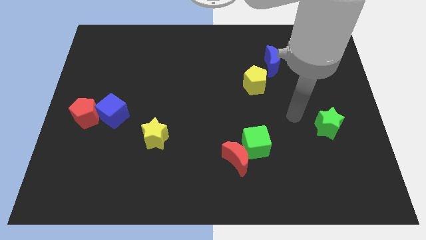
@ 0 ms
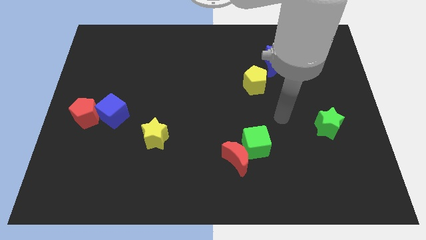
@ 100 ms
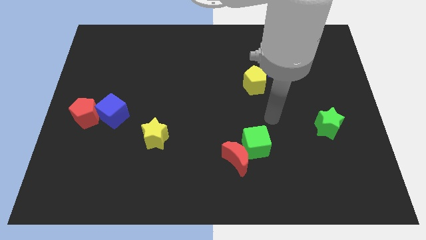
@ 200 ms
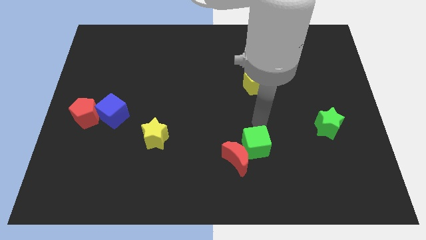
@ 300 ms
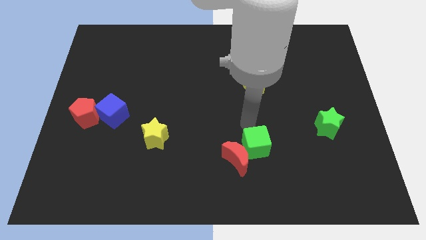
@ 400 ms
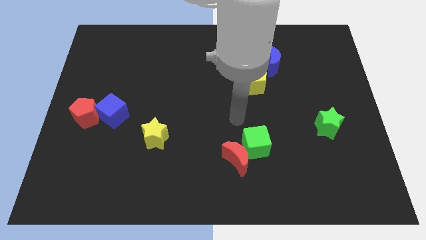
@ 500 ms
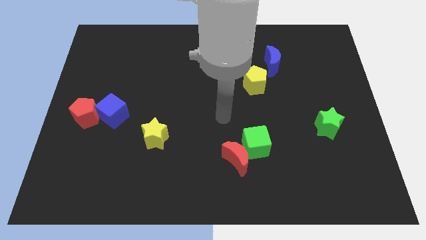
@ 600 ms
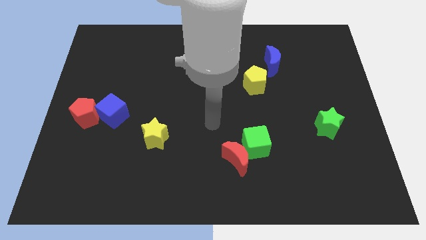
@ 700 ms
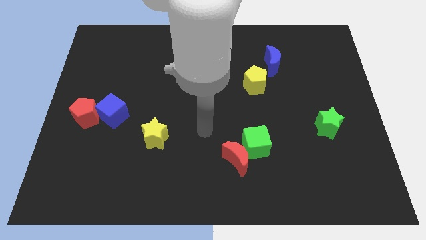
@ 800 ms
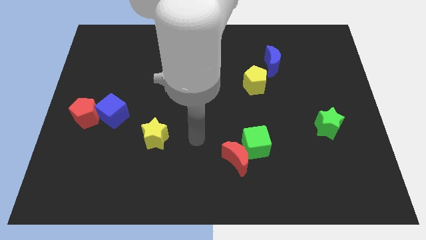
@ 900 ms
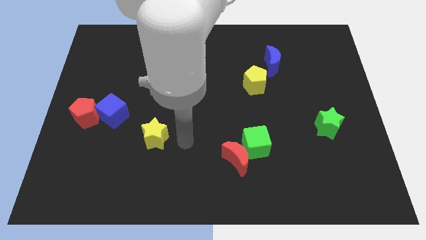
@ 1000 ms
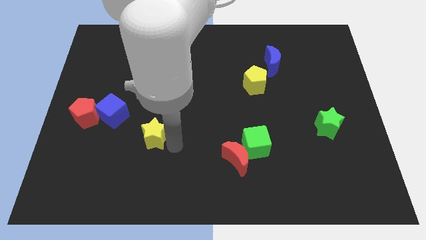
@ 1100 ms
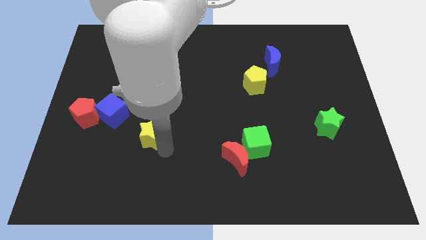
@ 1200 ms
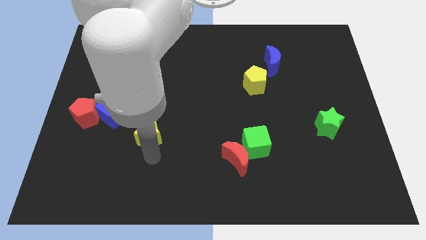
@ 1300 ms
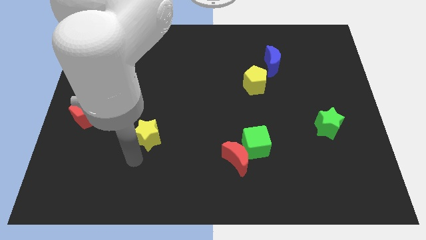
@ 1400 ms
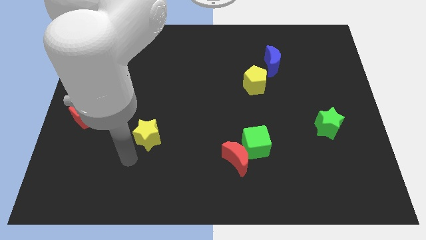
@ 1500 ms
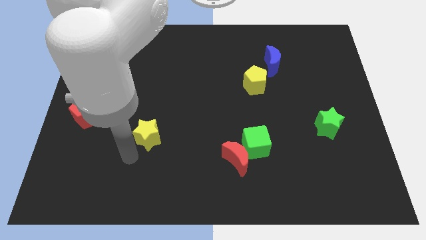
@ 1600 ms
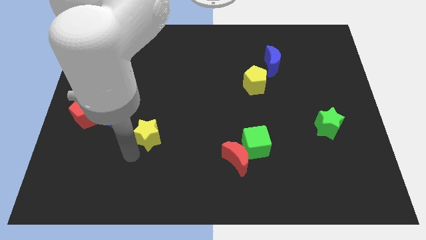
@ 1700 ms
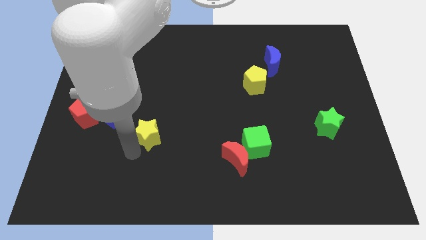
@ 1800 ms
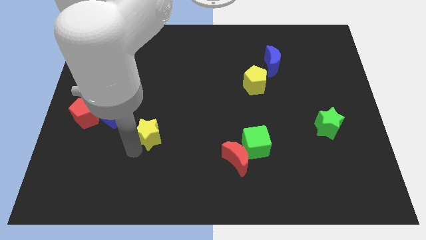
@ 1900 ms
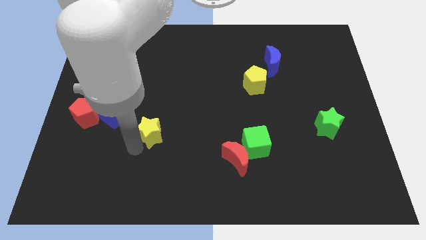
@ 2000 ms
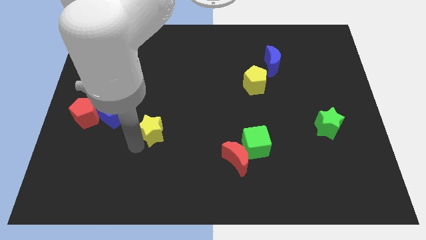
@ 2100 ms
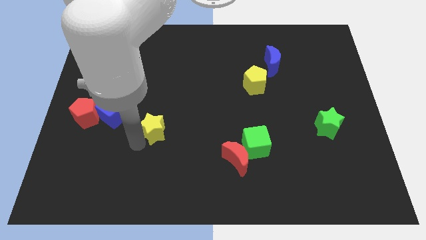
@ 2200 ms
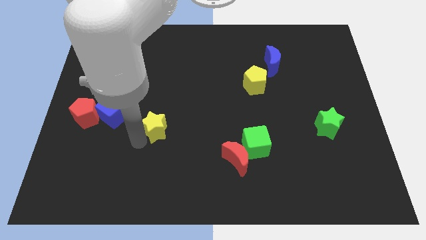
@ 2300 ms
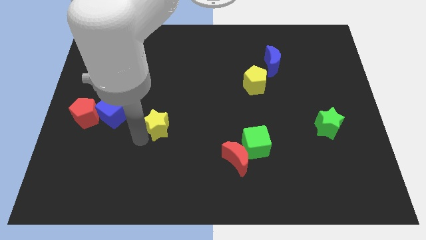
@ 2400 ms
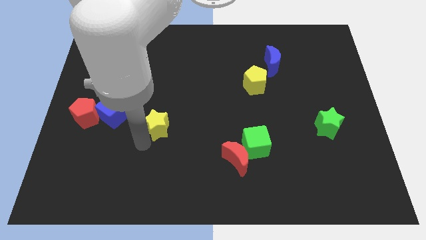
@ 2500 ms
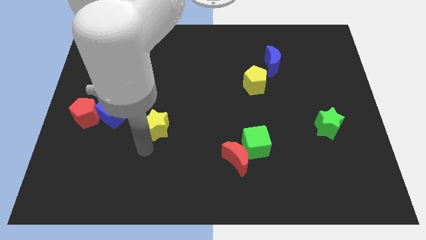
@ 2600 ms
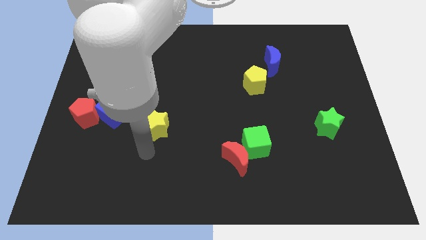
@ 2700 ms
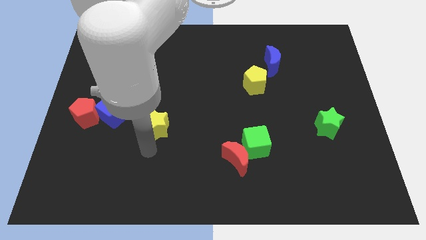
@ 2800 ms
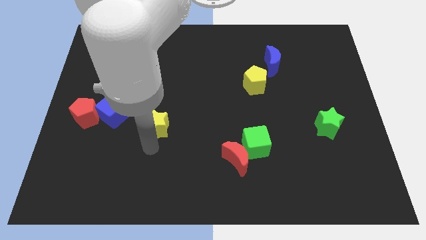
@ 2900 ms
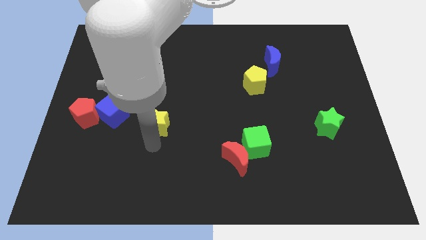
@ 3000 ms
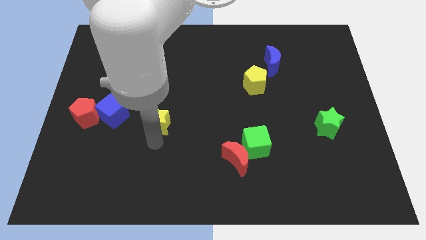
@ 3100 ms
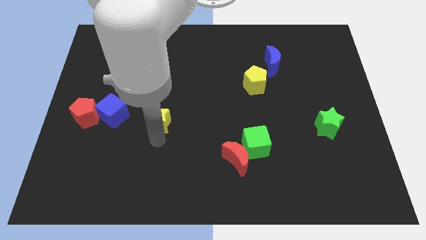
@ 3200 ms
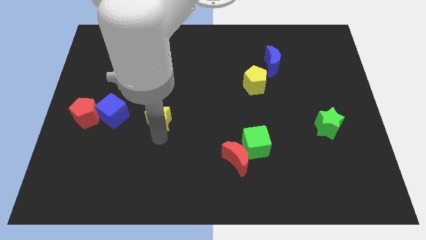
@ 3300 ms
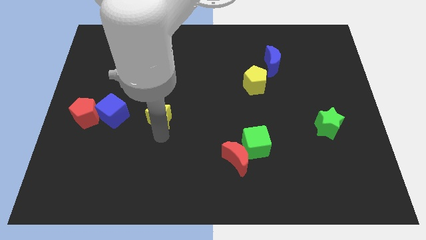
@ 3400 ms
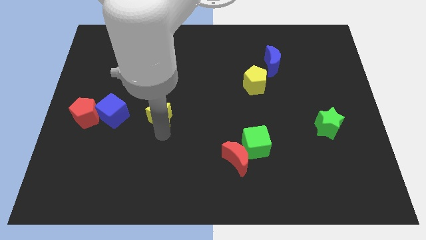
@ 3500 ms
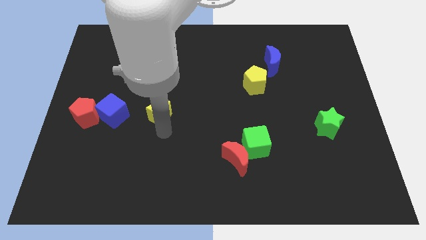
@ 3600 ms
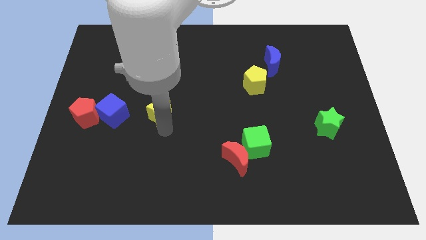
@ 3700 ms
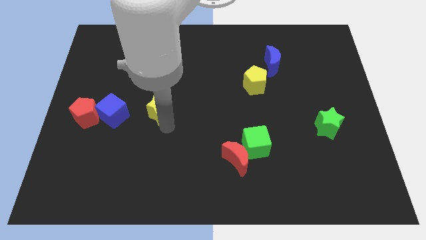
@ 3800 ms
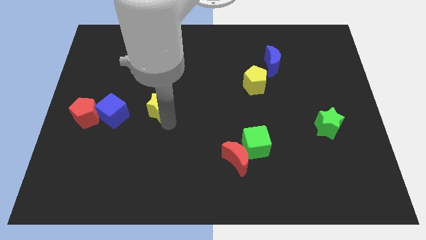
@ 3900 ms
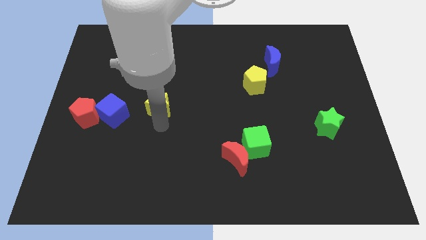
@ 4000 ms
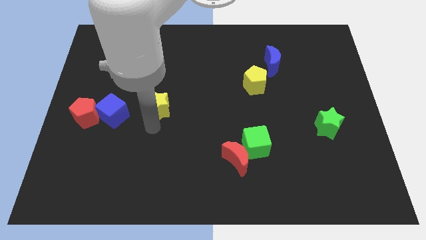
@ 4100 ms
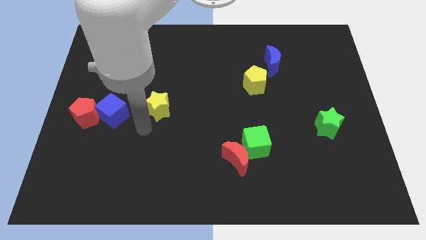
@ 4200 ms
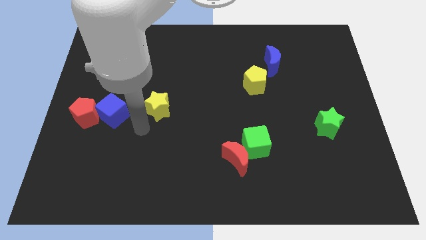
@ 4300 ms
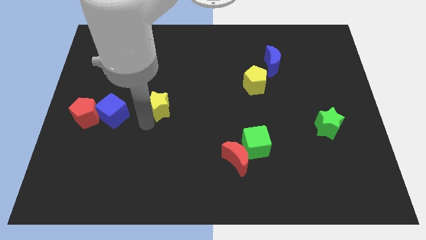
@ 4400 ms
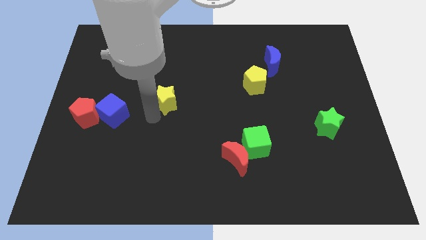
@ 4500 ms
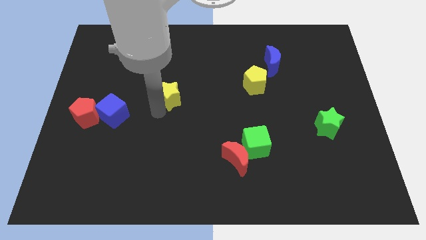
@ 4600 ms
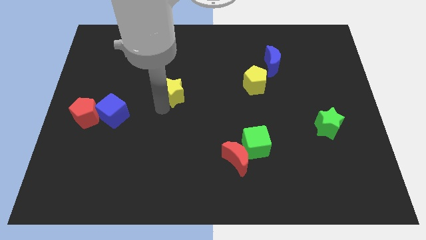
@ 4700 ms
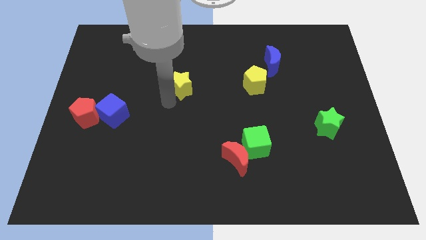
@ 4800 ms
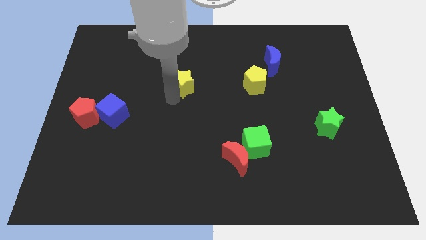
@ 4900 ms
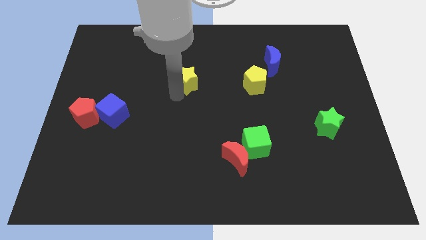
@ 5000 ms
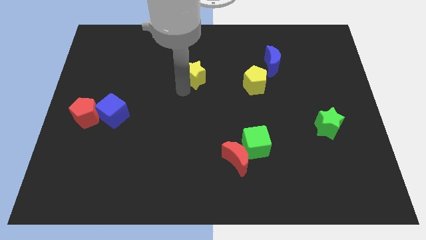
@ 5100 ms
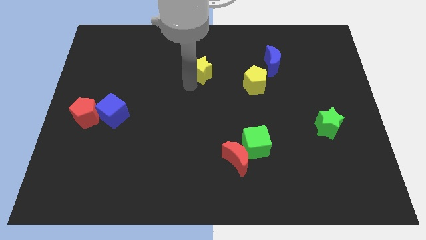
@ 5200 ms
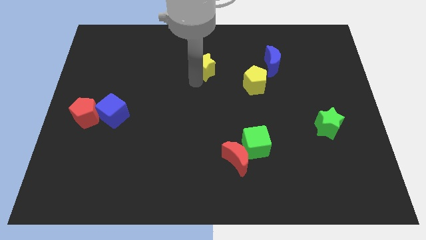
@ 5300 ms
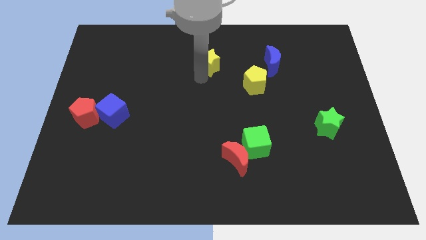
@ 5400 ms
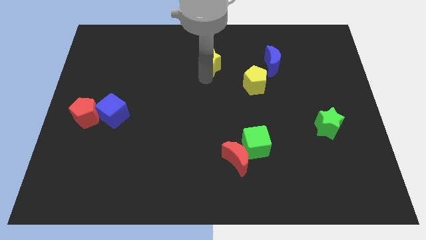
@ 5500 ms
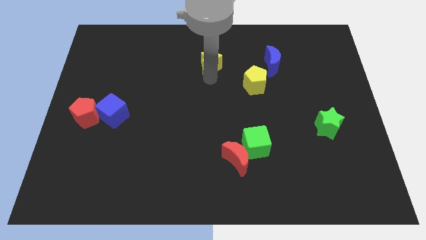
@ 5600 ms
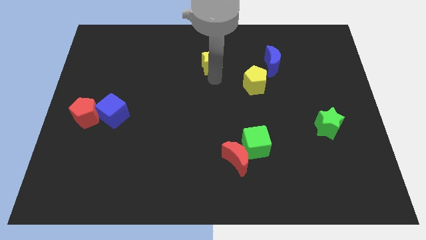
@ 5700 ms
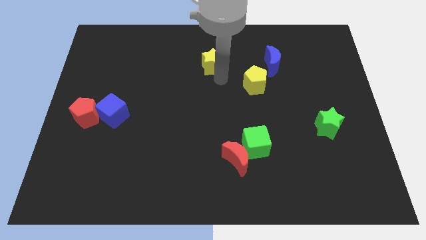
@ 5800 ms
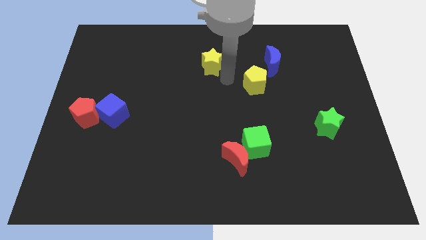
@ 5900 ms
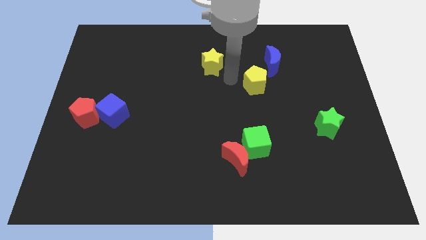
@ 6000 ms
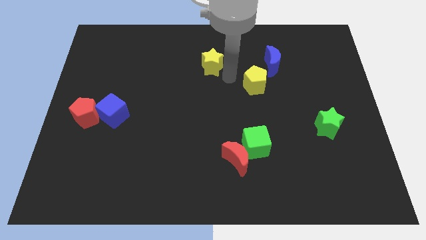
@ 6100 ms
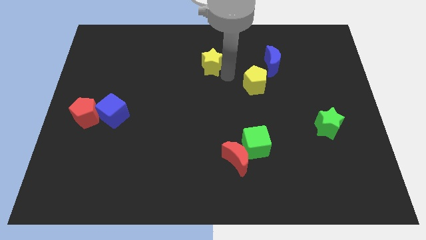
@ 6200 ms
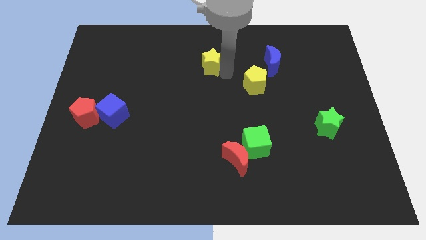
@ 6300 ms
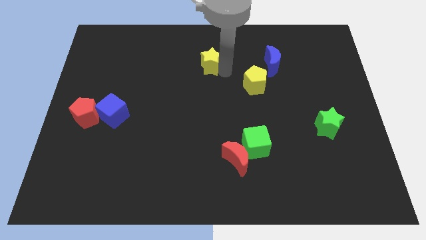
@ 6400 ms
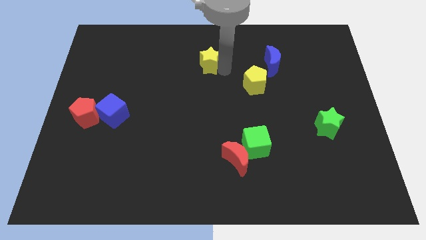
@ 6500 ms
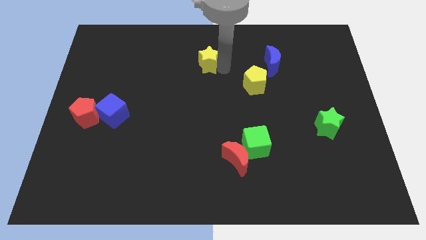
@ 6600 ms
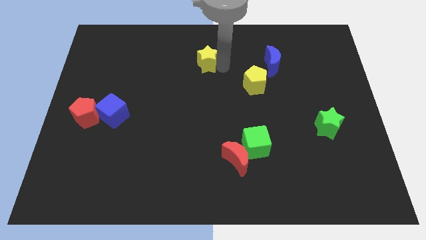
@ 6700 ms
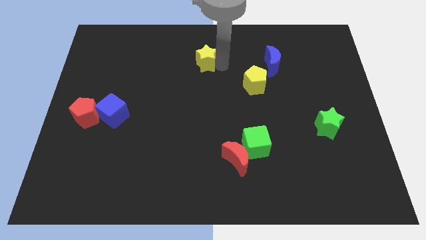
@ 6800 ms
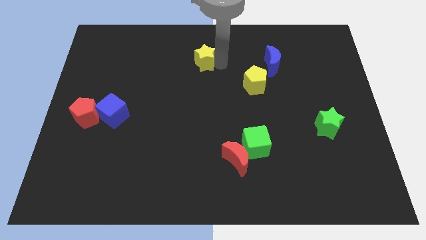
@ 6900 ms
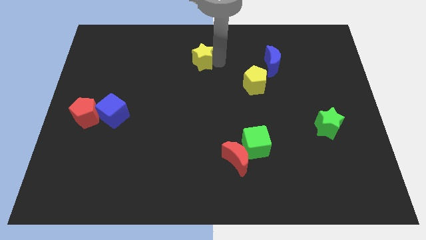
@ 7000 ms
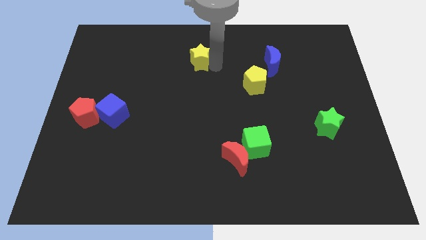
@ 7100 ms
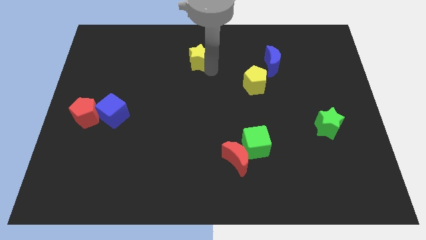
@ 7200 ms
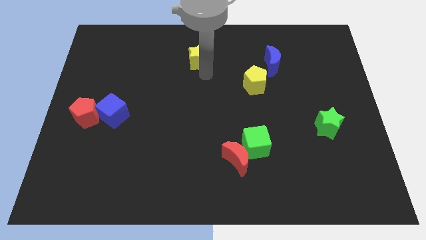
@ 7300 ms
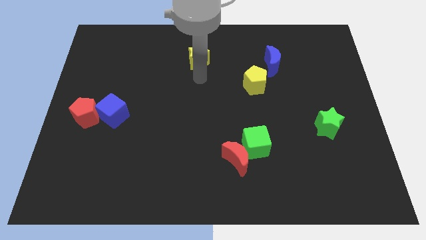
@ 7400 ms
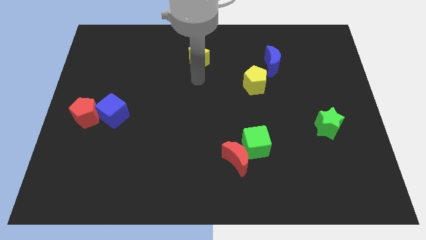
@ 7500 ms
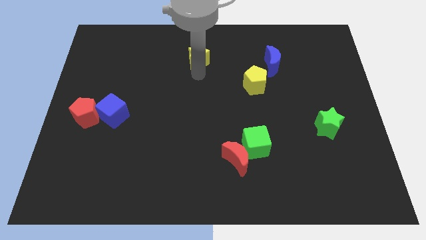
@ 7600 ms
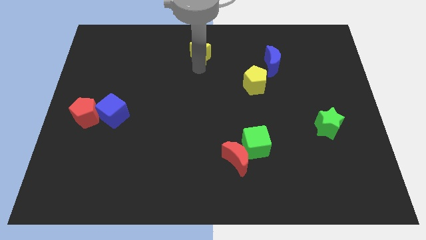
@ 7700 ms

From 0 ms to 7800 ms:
move the yellow star to the top
